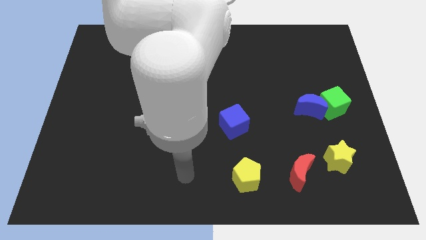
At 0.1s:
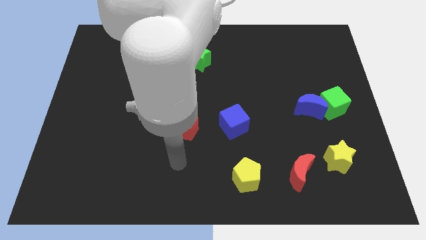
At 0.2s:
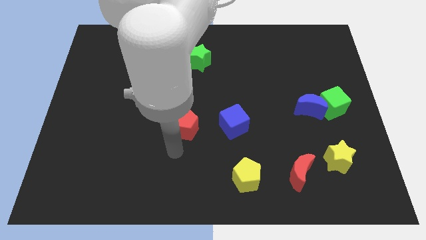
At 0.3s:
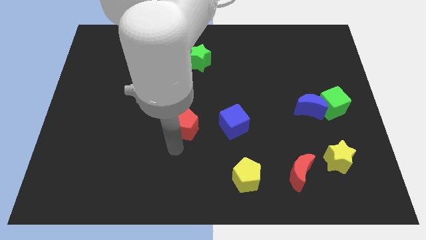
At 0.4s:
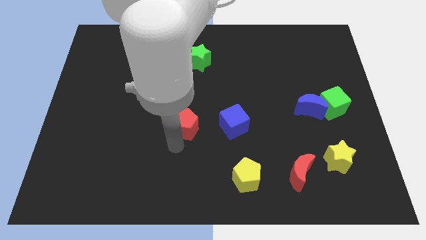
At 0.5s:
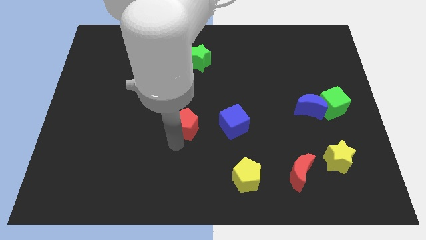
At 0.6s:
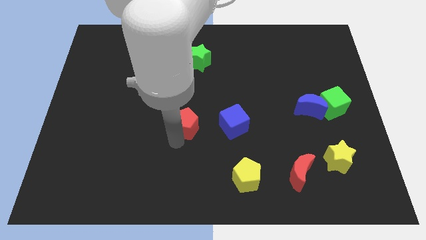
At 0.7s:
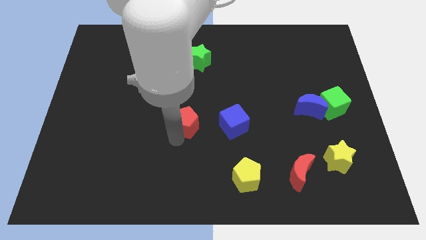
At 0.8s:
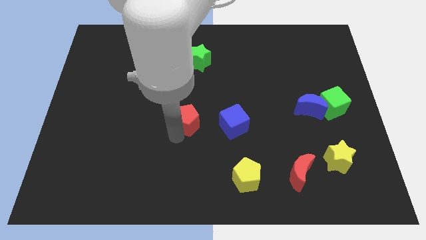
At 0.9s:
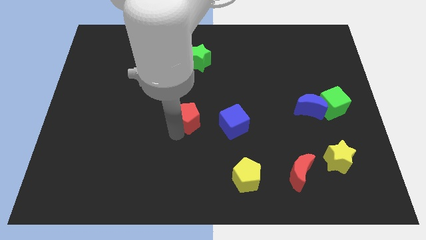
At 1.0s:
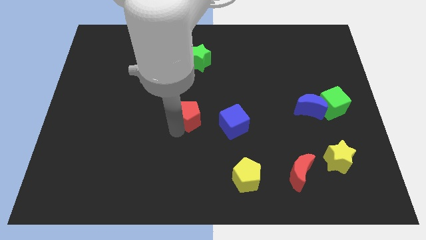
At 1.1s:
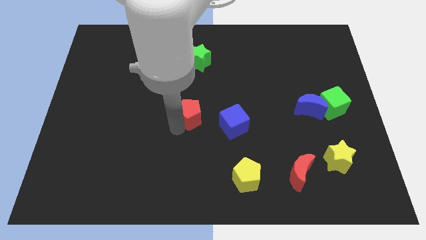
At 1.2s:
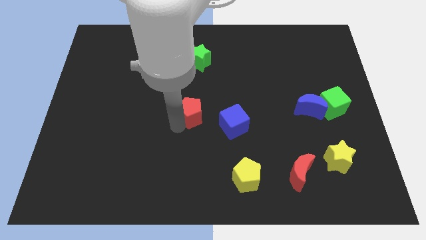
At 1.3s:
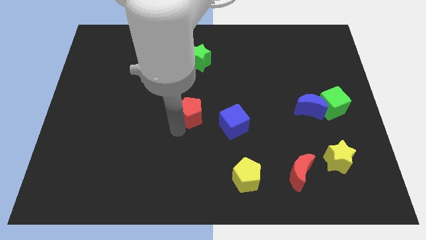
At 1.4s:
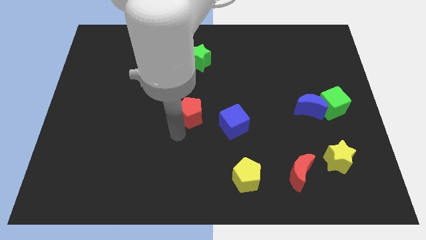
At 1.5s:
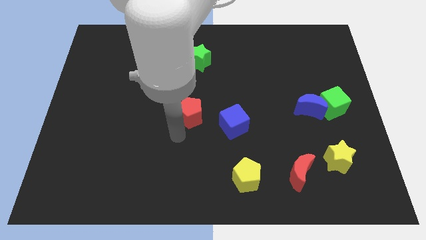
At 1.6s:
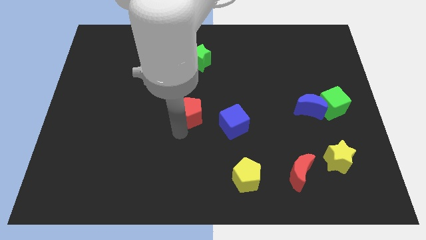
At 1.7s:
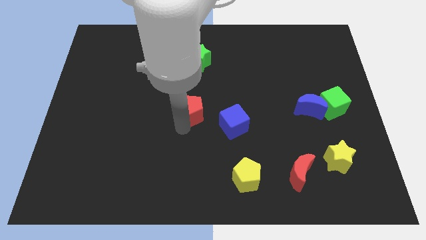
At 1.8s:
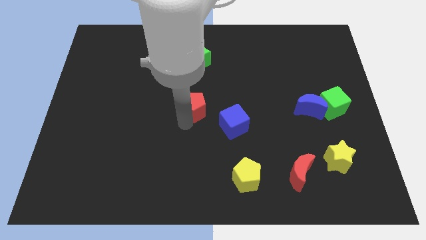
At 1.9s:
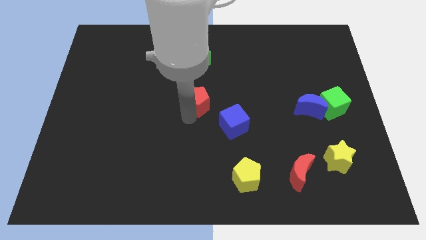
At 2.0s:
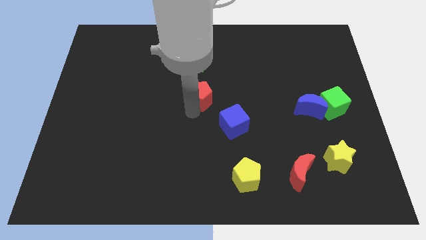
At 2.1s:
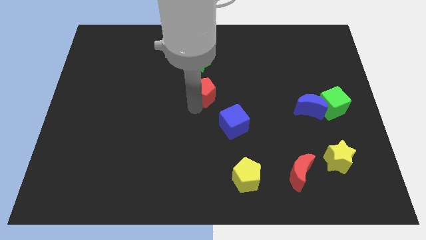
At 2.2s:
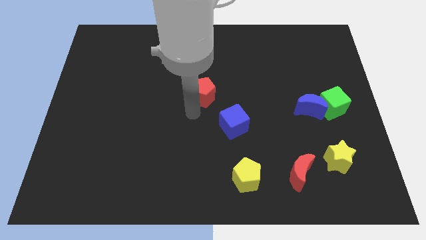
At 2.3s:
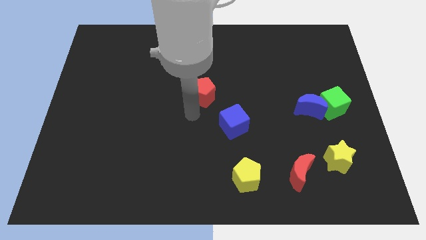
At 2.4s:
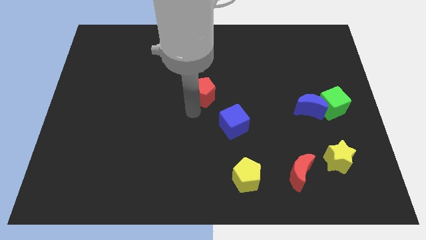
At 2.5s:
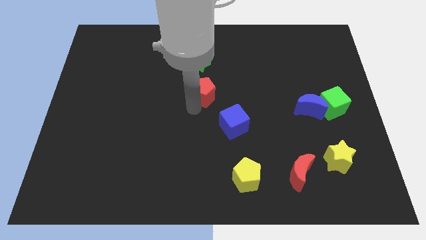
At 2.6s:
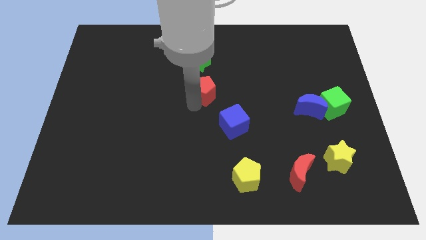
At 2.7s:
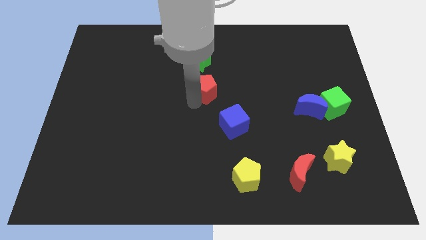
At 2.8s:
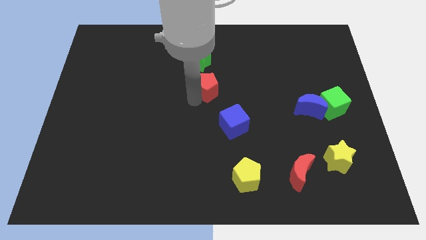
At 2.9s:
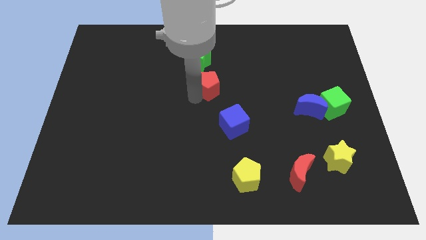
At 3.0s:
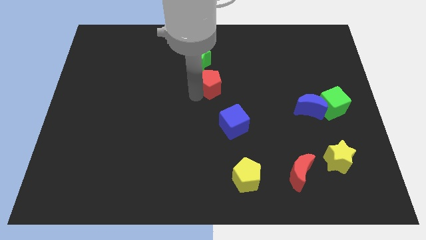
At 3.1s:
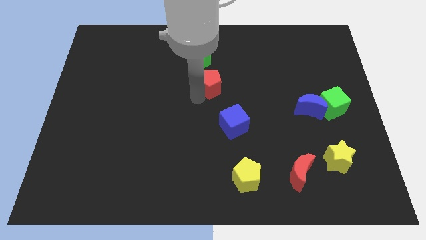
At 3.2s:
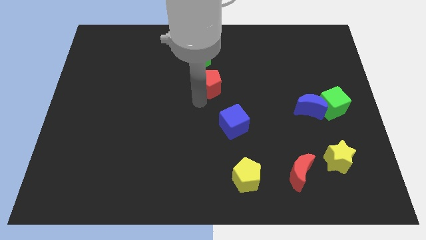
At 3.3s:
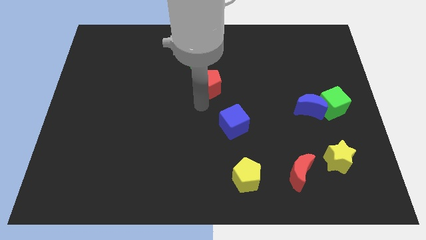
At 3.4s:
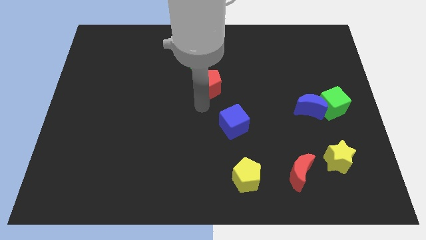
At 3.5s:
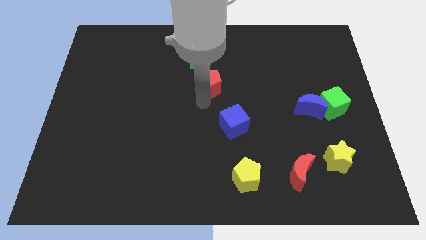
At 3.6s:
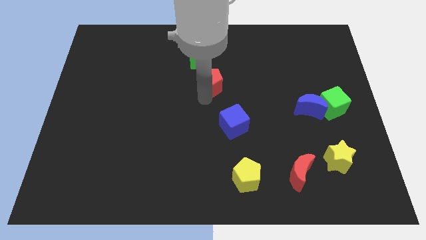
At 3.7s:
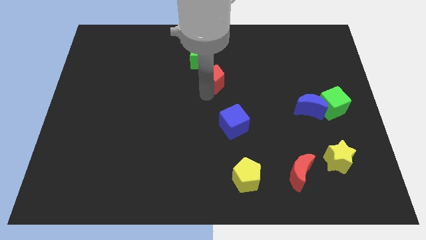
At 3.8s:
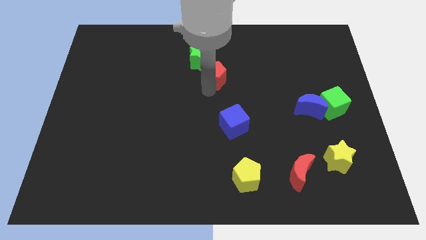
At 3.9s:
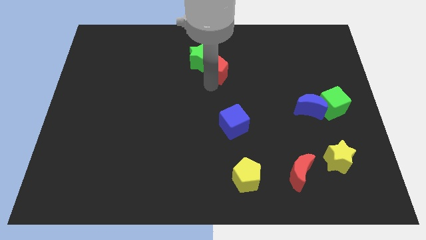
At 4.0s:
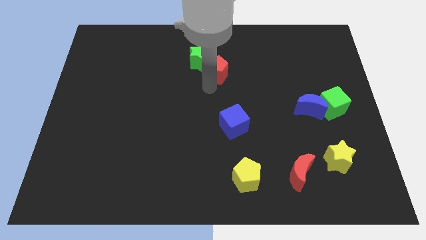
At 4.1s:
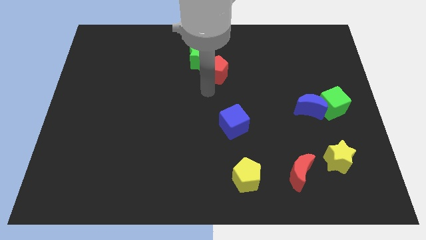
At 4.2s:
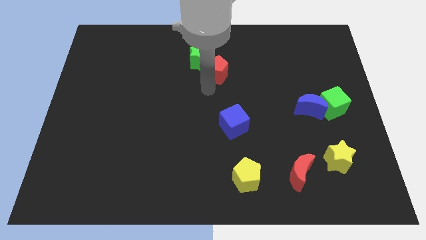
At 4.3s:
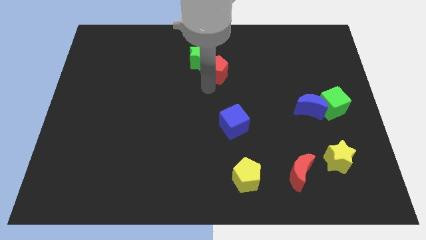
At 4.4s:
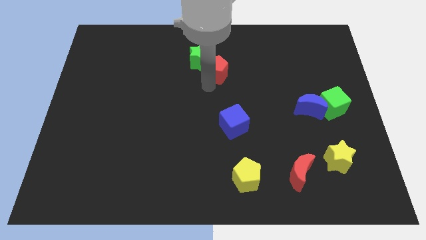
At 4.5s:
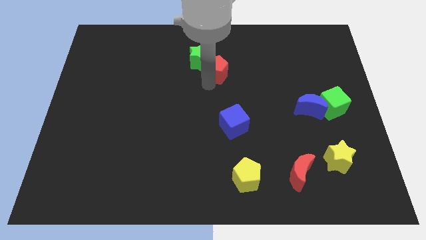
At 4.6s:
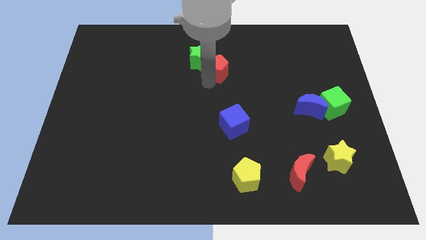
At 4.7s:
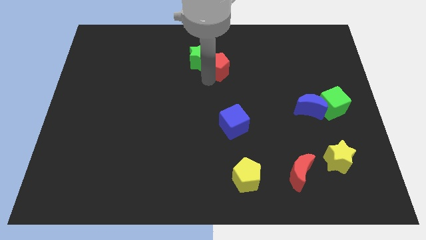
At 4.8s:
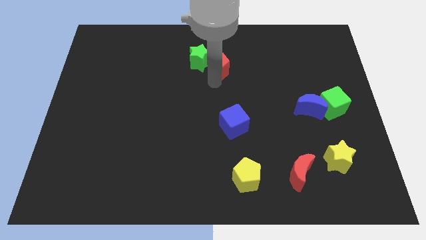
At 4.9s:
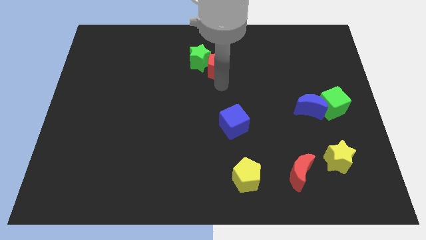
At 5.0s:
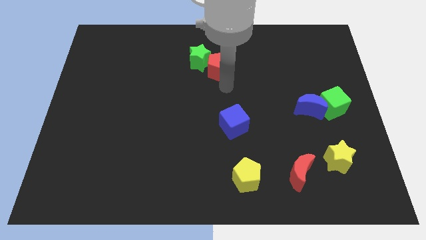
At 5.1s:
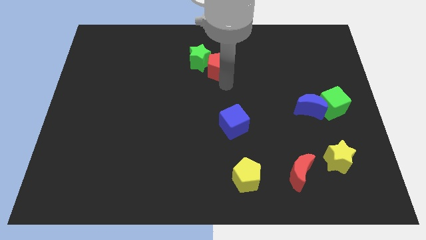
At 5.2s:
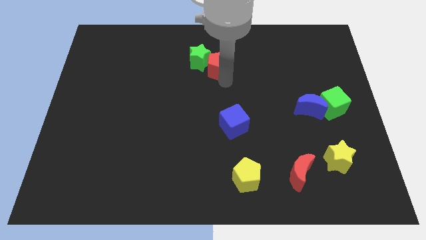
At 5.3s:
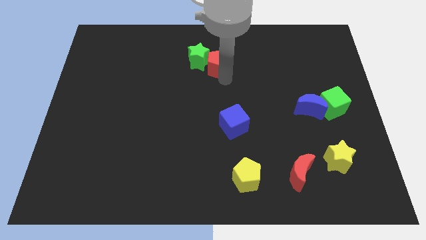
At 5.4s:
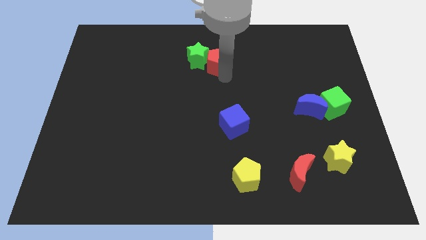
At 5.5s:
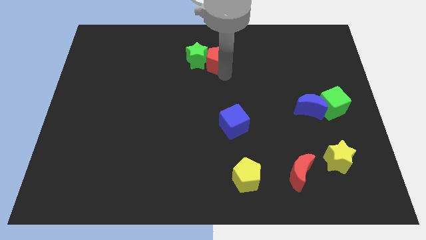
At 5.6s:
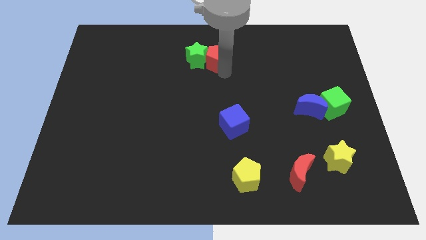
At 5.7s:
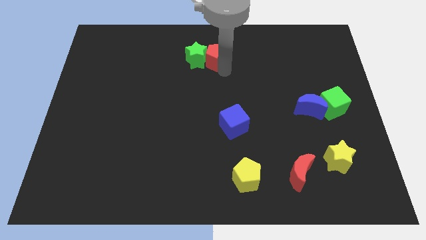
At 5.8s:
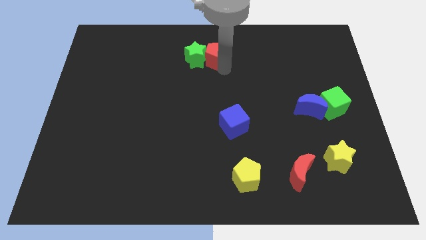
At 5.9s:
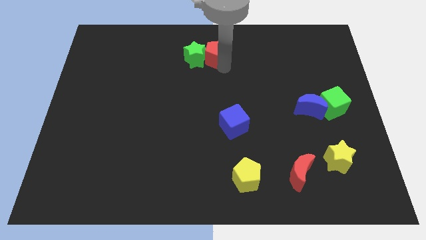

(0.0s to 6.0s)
put the red pentagon to the top side

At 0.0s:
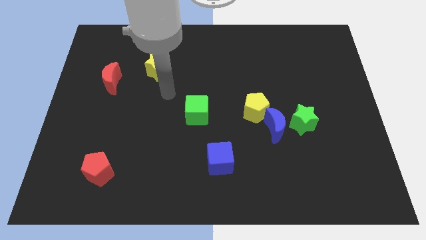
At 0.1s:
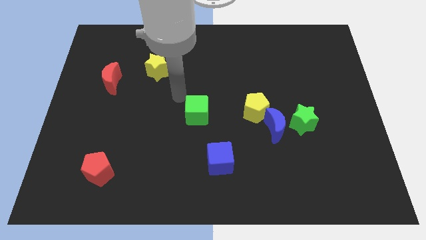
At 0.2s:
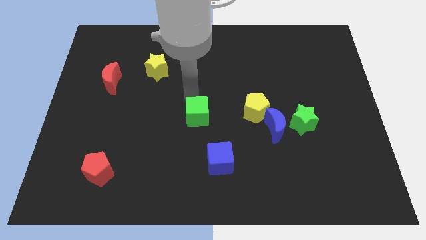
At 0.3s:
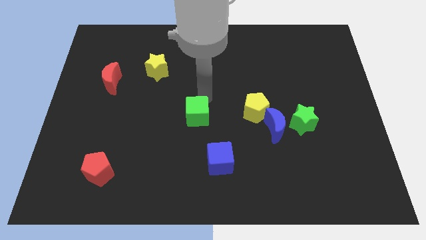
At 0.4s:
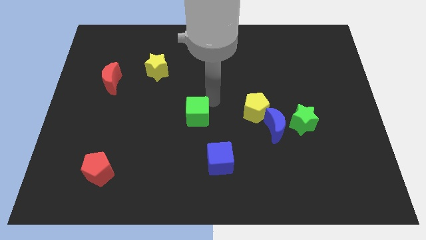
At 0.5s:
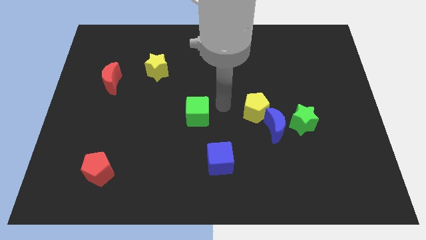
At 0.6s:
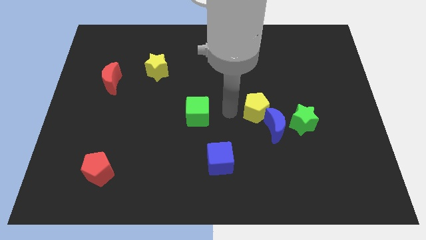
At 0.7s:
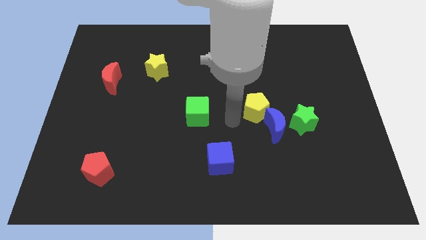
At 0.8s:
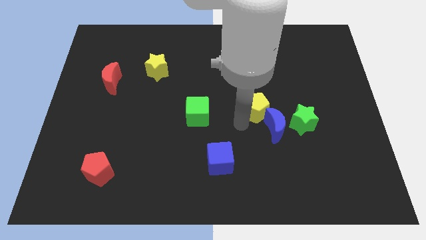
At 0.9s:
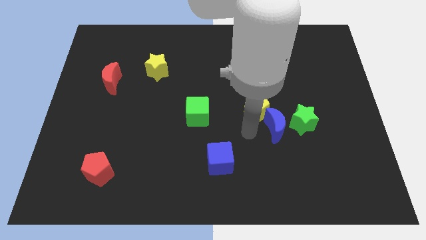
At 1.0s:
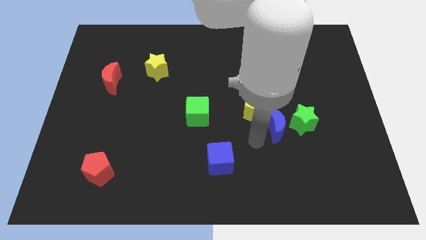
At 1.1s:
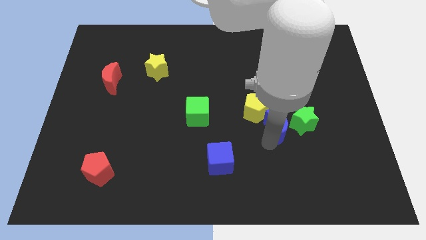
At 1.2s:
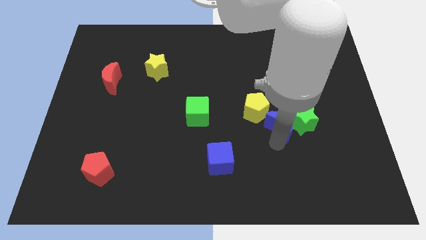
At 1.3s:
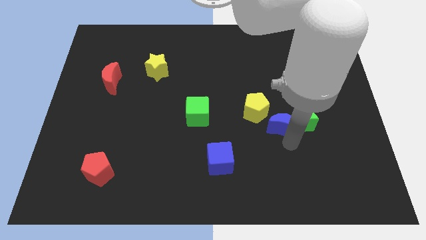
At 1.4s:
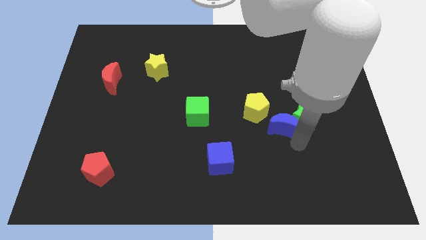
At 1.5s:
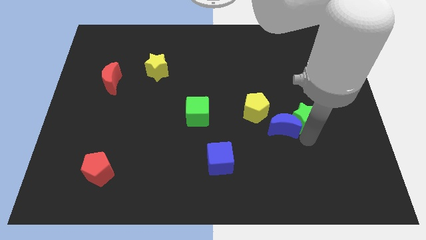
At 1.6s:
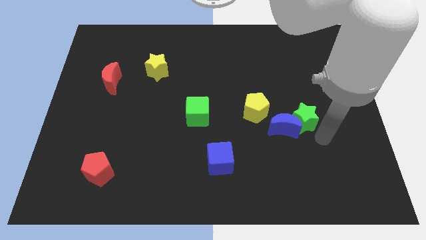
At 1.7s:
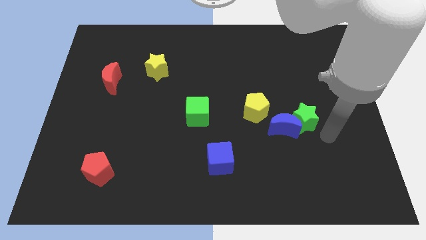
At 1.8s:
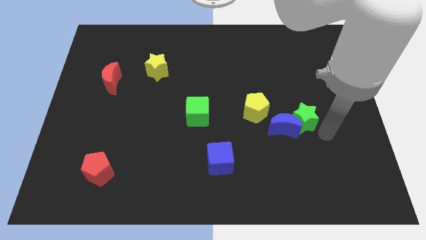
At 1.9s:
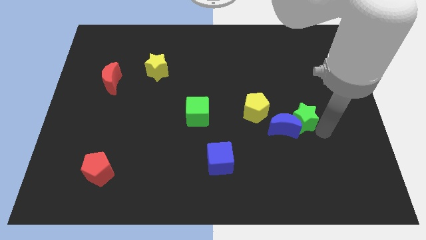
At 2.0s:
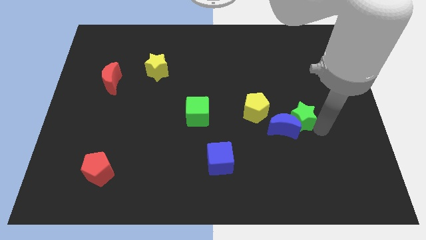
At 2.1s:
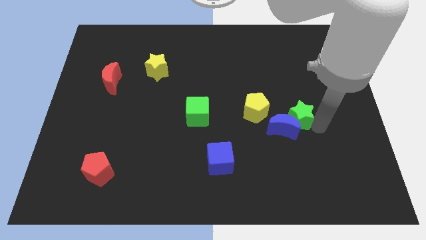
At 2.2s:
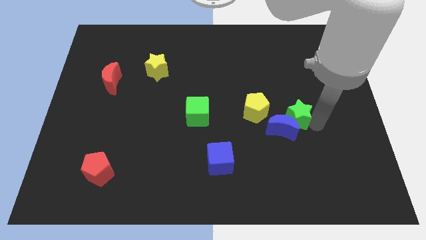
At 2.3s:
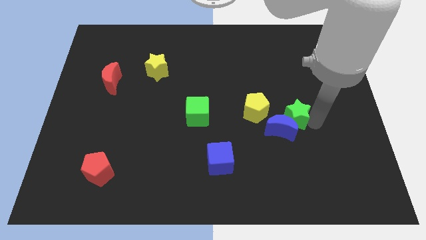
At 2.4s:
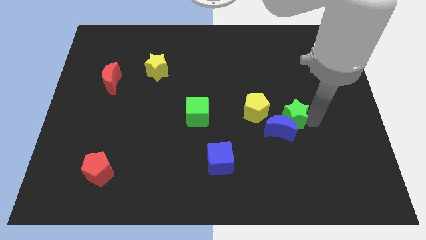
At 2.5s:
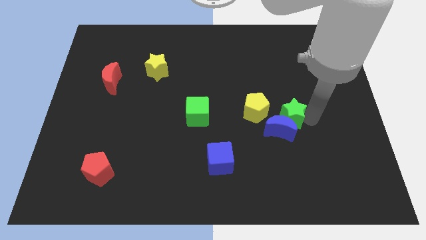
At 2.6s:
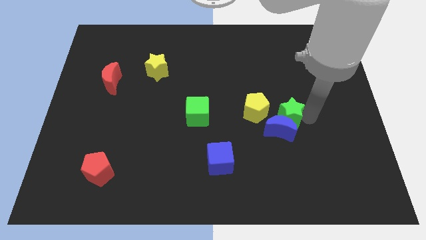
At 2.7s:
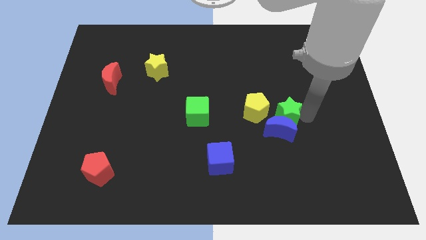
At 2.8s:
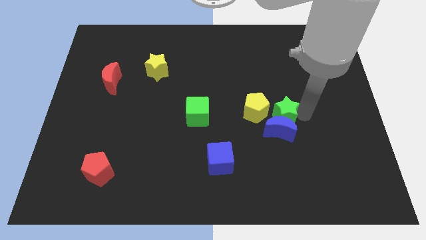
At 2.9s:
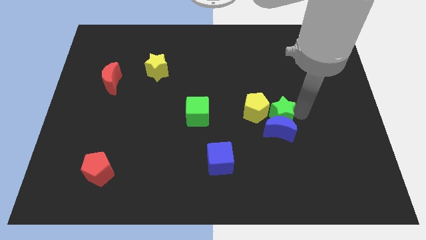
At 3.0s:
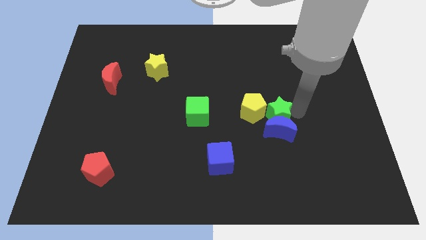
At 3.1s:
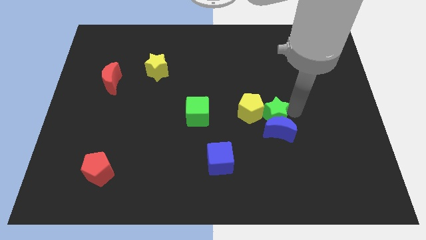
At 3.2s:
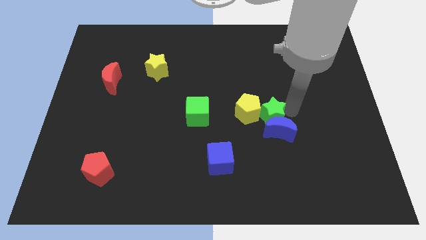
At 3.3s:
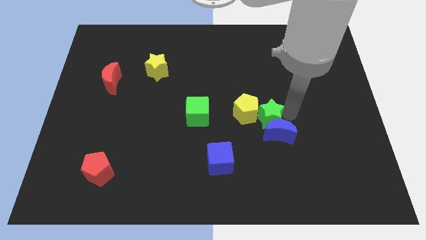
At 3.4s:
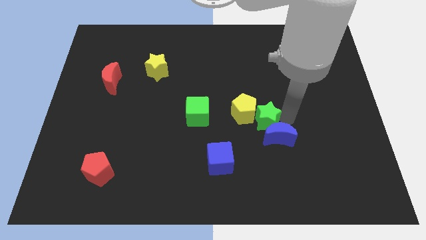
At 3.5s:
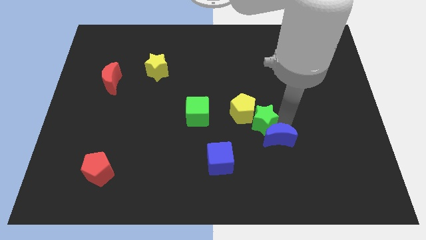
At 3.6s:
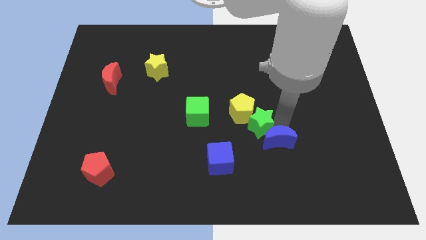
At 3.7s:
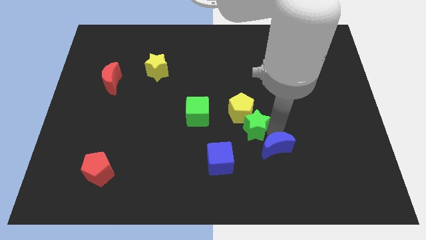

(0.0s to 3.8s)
move the green star to the center
